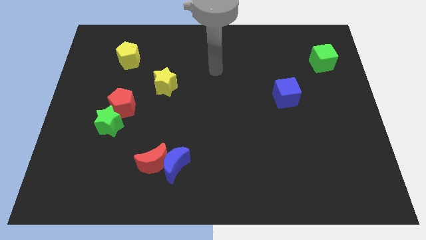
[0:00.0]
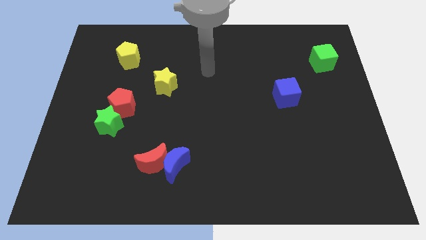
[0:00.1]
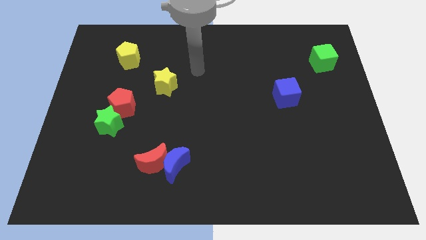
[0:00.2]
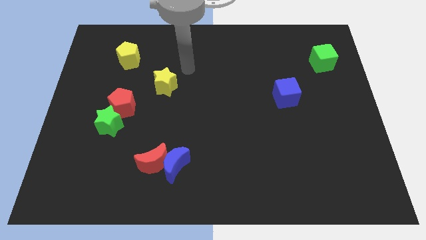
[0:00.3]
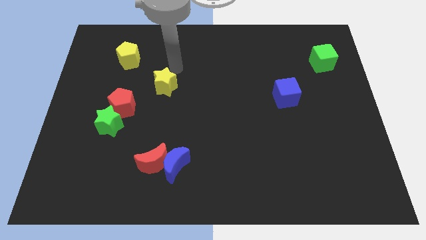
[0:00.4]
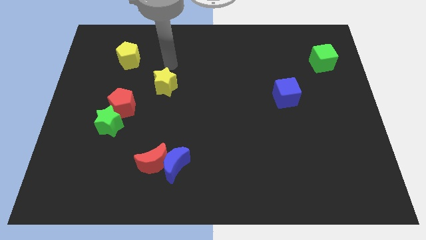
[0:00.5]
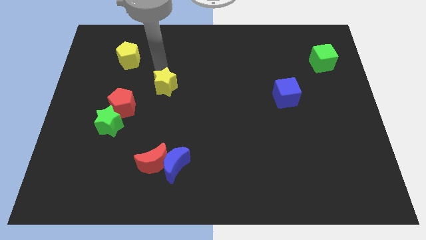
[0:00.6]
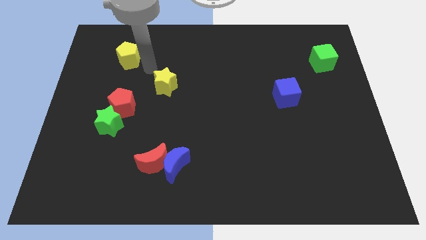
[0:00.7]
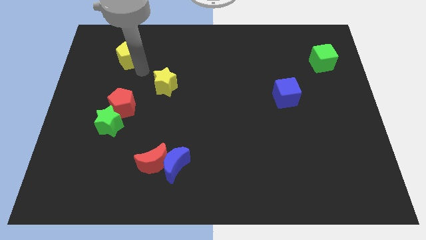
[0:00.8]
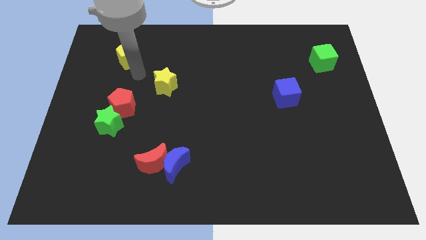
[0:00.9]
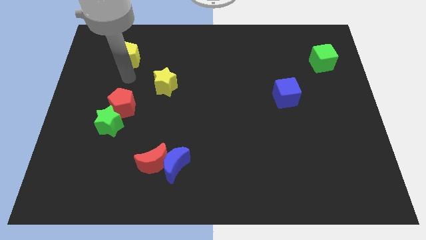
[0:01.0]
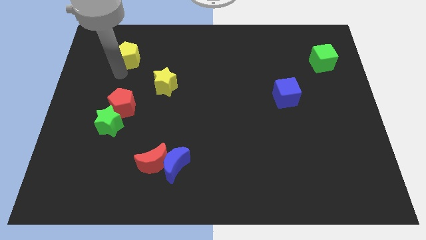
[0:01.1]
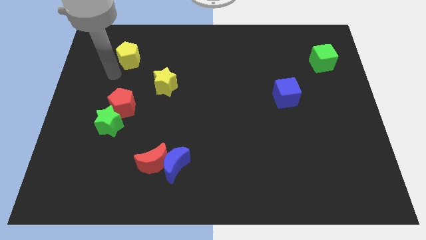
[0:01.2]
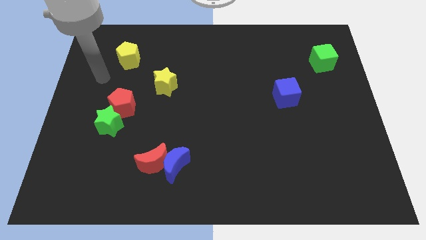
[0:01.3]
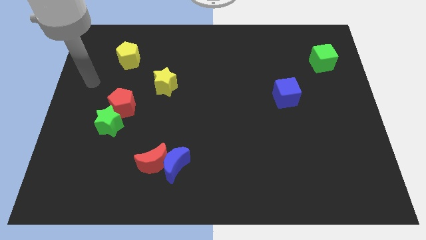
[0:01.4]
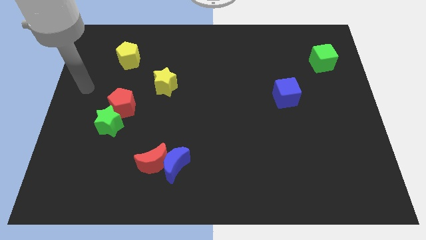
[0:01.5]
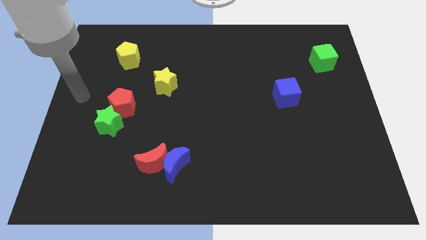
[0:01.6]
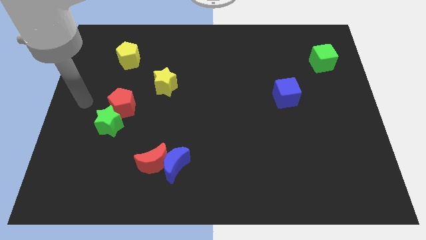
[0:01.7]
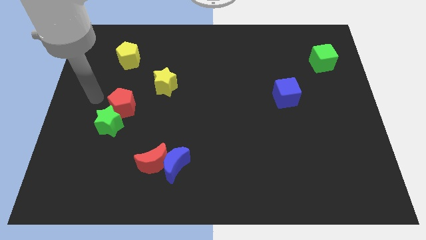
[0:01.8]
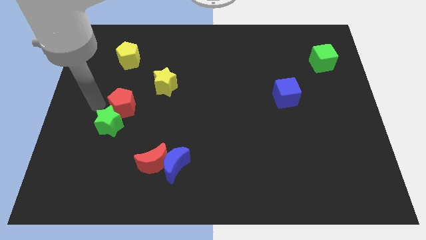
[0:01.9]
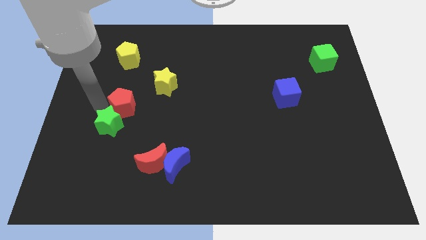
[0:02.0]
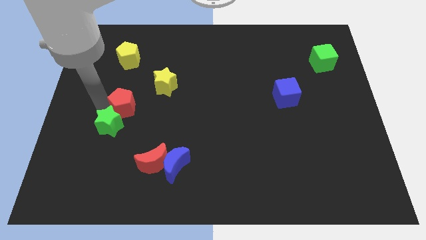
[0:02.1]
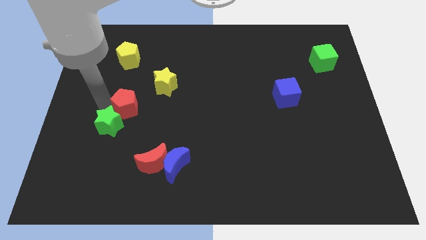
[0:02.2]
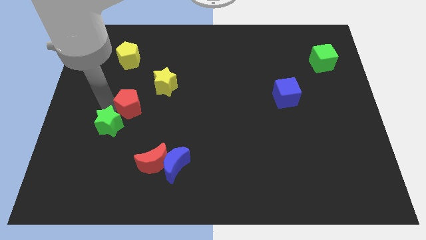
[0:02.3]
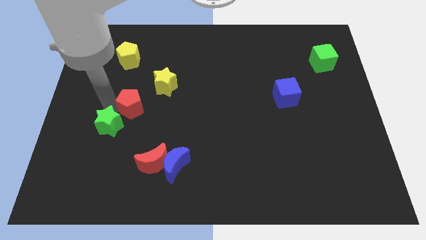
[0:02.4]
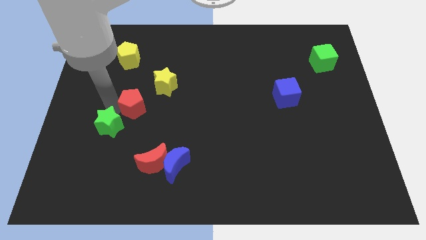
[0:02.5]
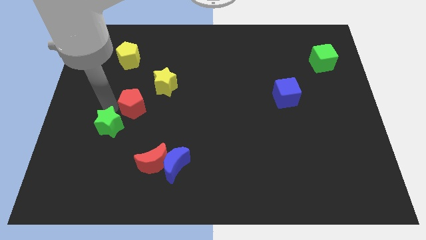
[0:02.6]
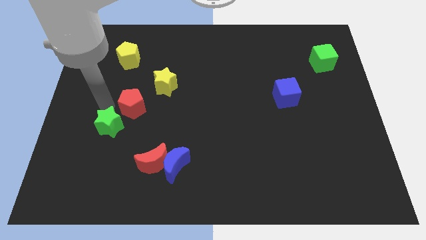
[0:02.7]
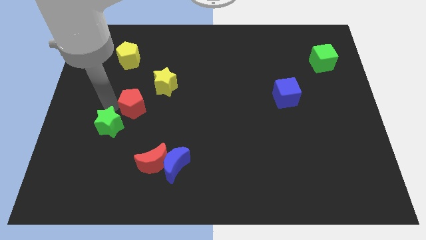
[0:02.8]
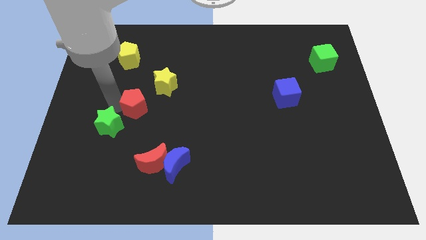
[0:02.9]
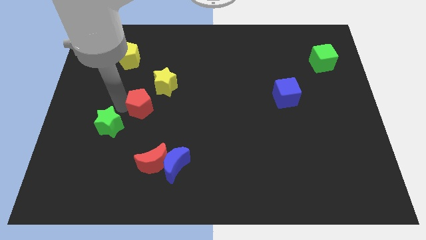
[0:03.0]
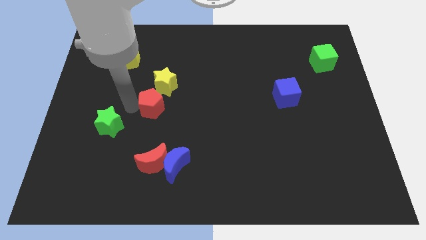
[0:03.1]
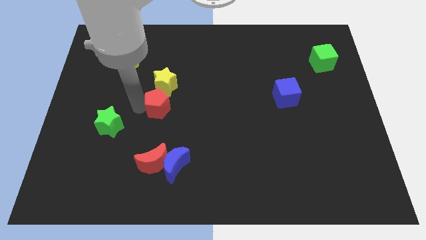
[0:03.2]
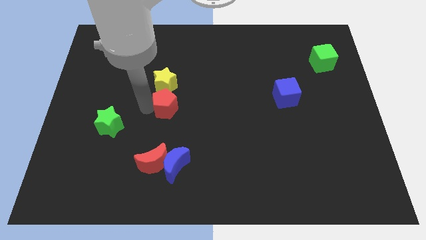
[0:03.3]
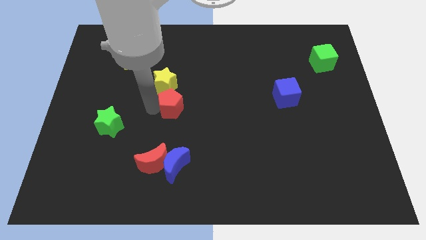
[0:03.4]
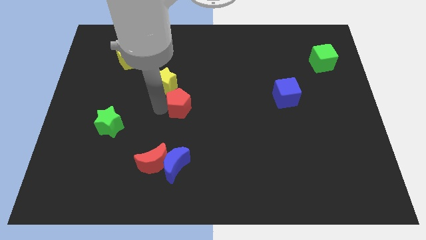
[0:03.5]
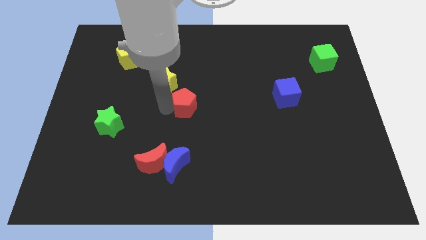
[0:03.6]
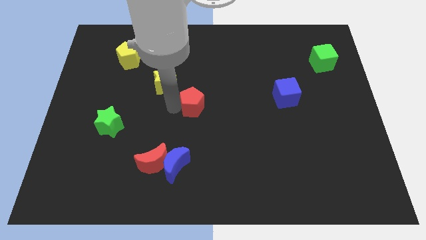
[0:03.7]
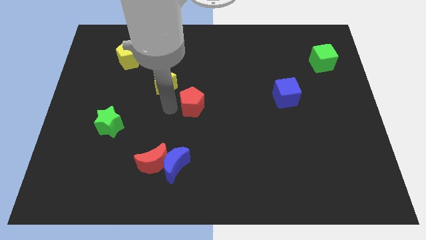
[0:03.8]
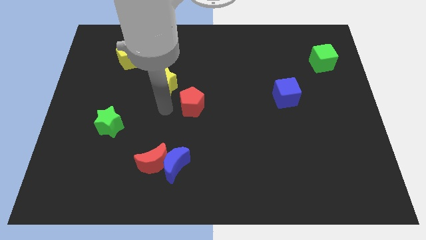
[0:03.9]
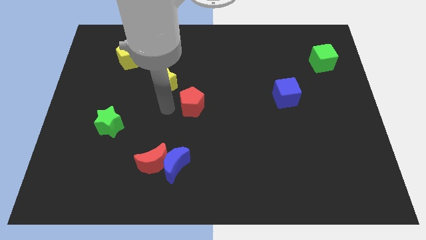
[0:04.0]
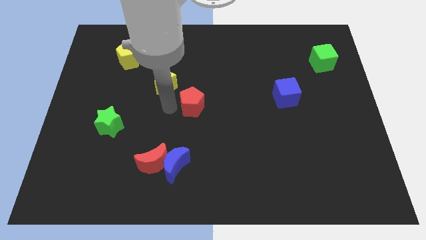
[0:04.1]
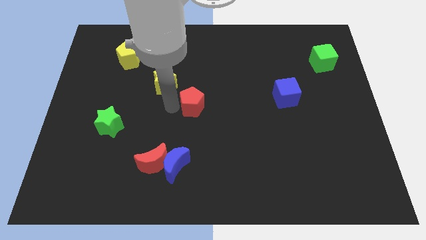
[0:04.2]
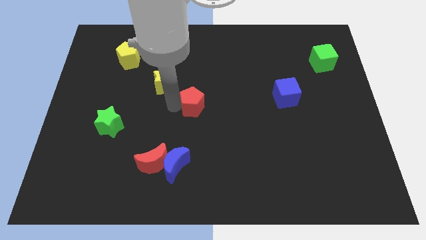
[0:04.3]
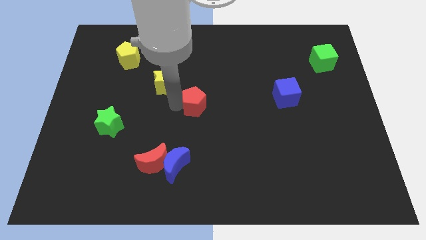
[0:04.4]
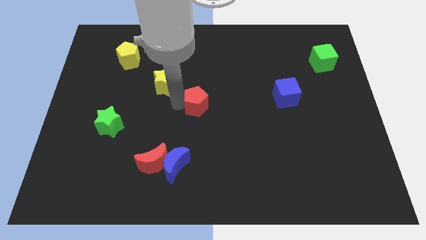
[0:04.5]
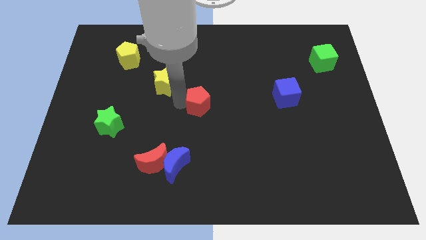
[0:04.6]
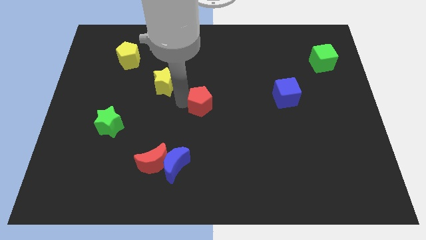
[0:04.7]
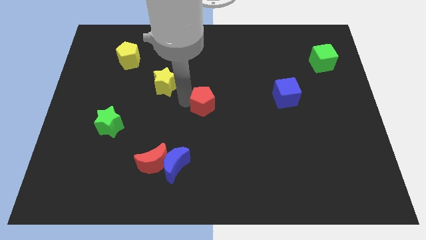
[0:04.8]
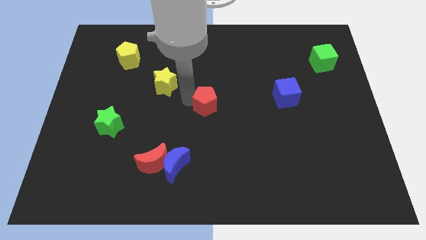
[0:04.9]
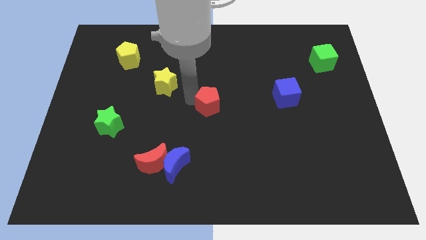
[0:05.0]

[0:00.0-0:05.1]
move the red pentagon to the right

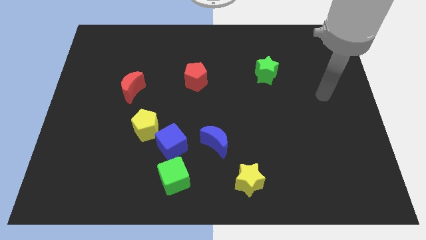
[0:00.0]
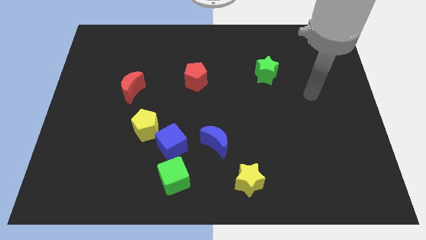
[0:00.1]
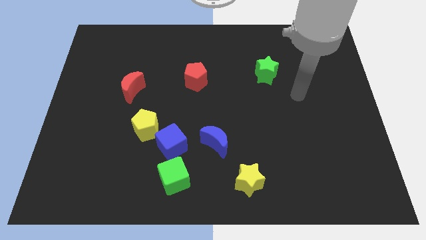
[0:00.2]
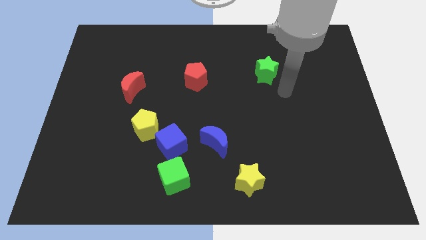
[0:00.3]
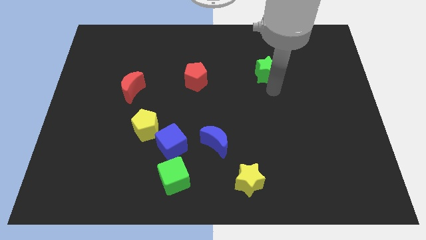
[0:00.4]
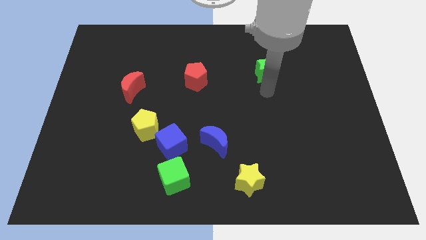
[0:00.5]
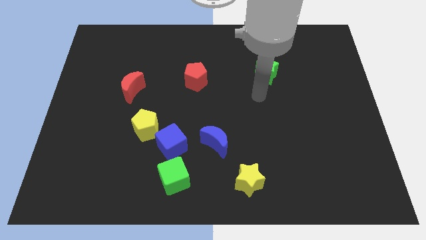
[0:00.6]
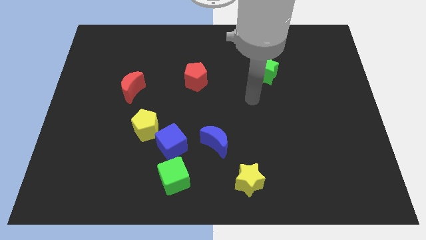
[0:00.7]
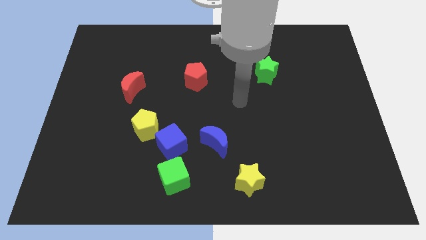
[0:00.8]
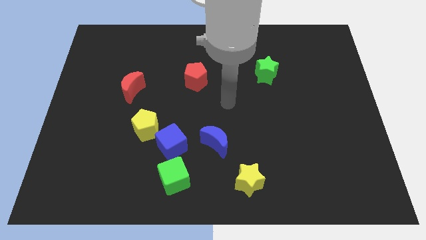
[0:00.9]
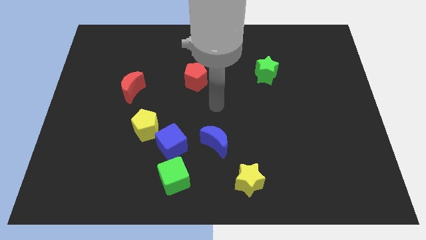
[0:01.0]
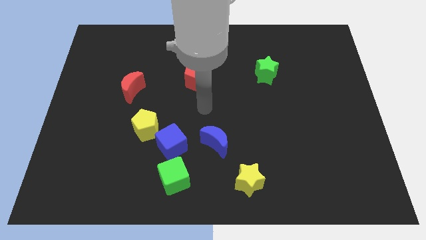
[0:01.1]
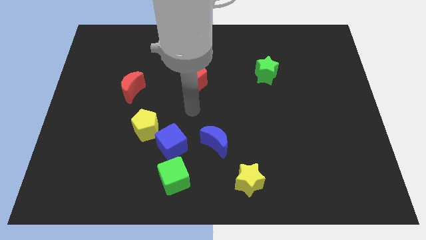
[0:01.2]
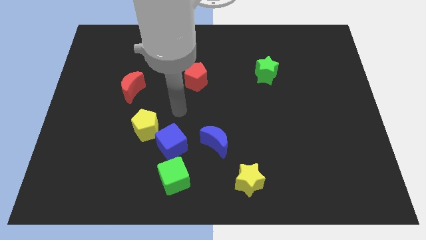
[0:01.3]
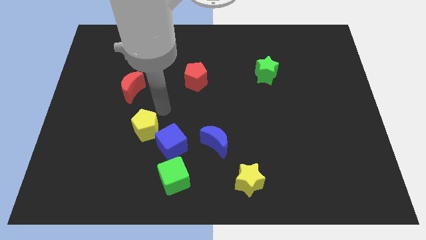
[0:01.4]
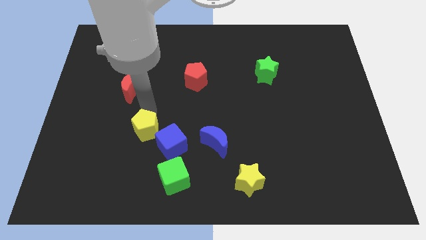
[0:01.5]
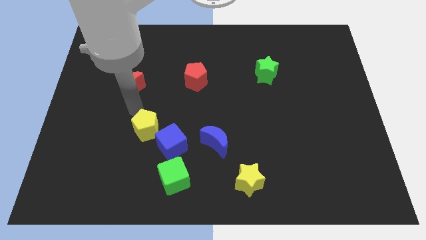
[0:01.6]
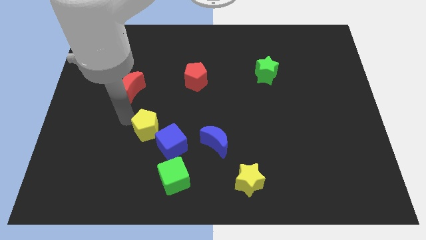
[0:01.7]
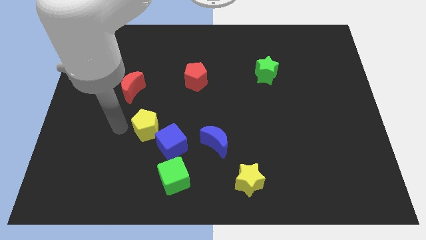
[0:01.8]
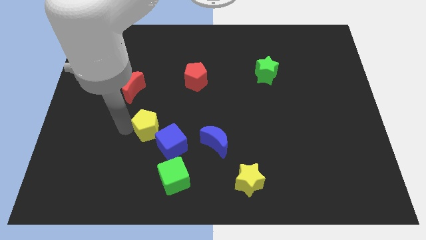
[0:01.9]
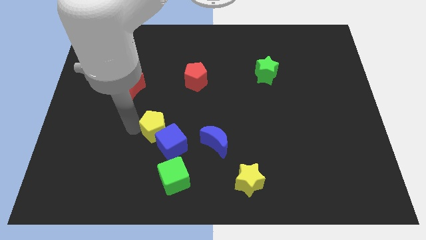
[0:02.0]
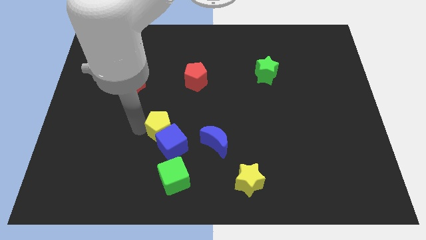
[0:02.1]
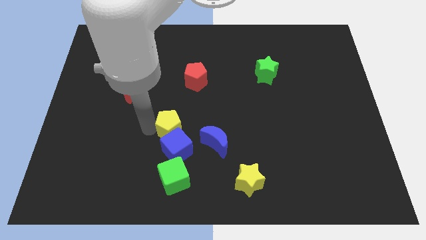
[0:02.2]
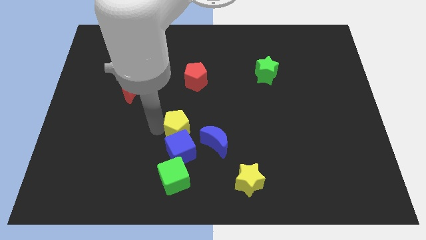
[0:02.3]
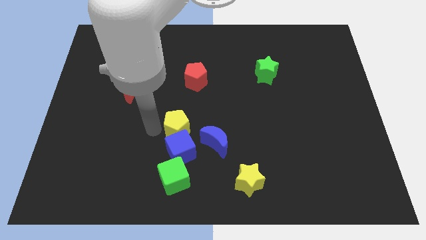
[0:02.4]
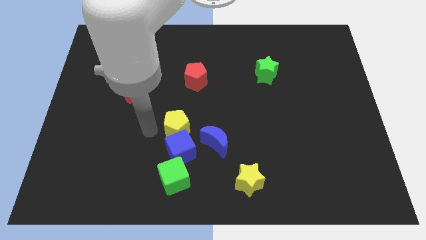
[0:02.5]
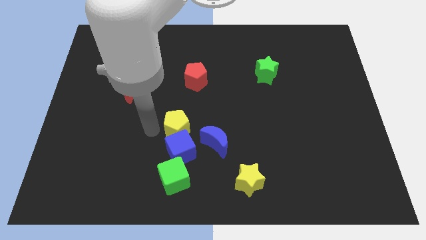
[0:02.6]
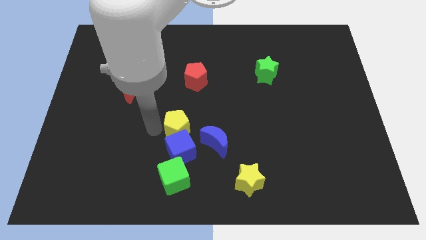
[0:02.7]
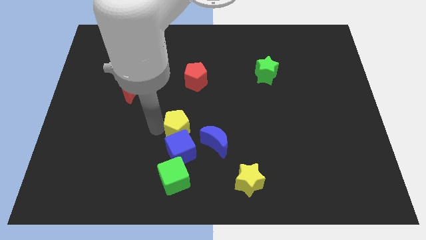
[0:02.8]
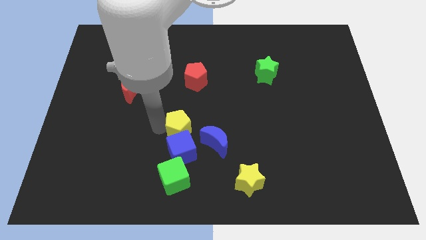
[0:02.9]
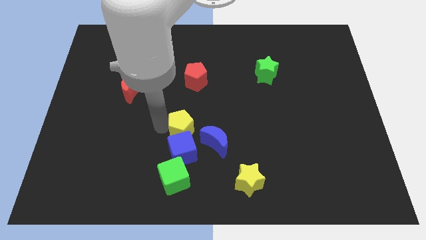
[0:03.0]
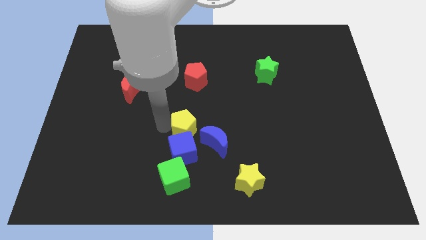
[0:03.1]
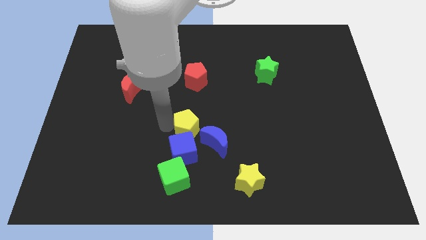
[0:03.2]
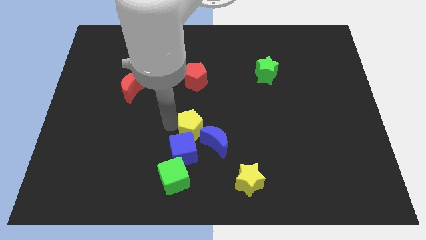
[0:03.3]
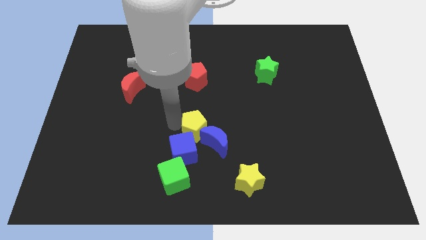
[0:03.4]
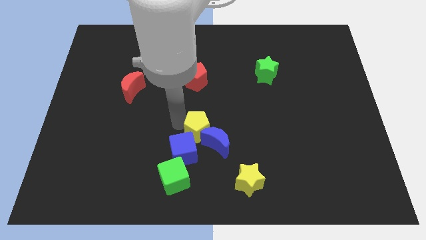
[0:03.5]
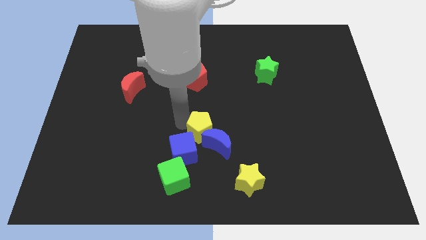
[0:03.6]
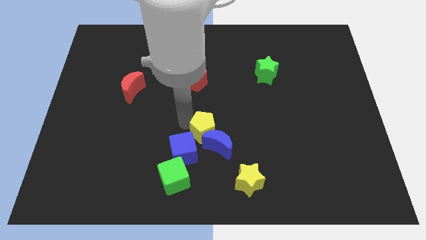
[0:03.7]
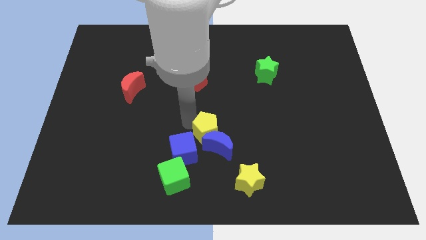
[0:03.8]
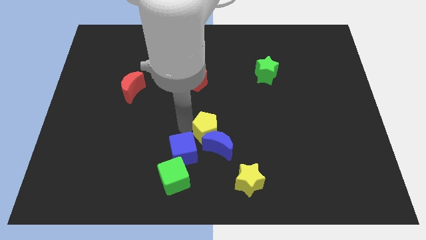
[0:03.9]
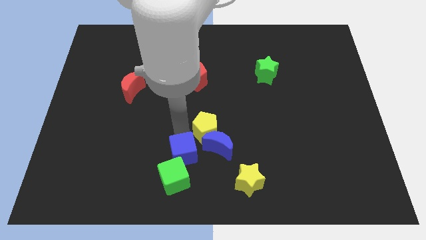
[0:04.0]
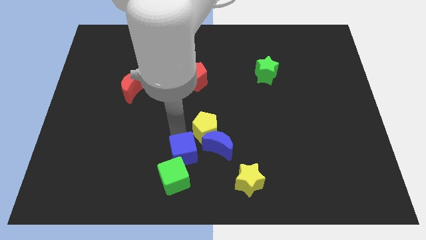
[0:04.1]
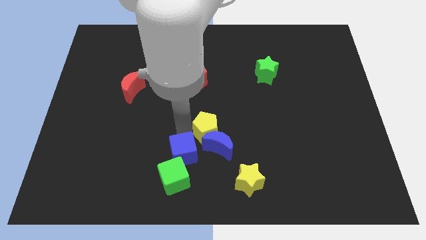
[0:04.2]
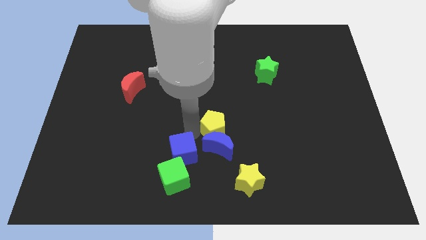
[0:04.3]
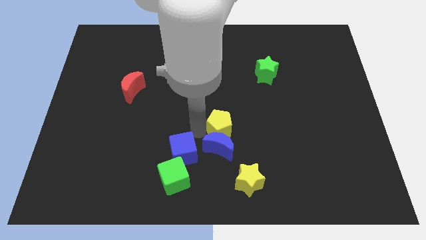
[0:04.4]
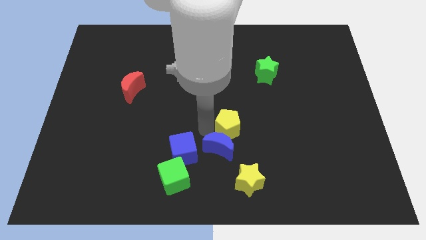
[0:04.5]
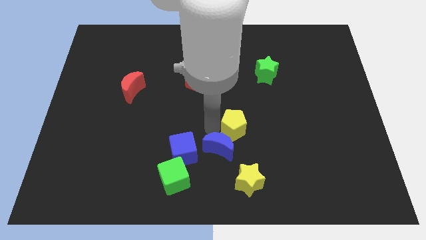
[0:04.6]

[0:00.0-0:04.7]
move the yellow pentagon to the right
